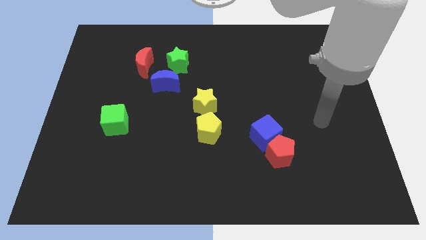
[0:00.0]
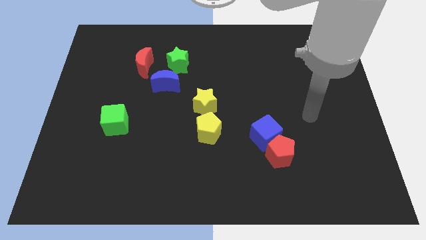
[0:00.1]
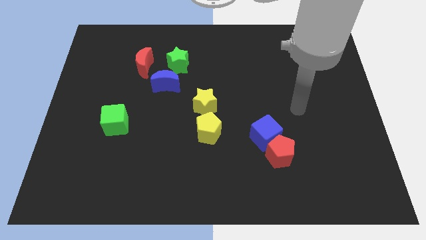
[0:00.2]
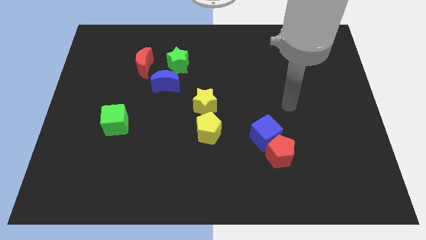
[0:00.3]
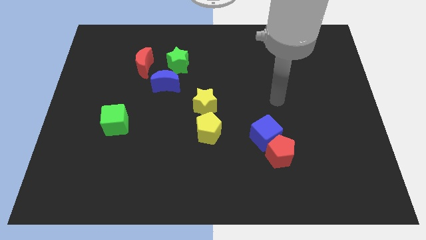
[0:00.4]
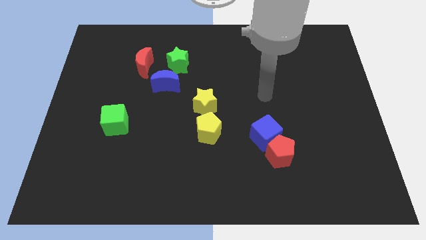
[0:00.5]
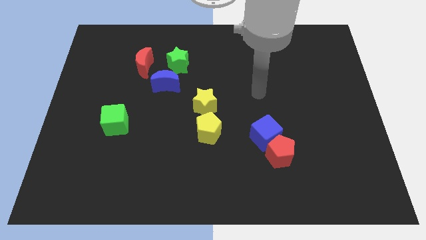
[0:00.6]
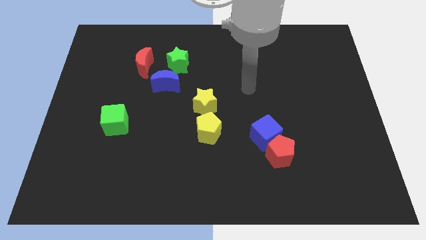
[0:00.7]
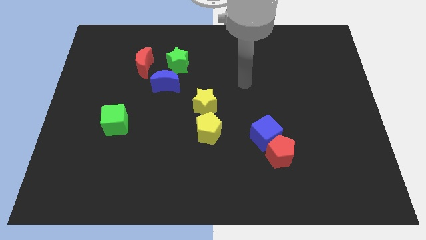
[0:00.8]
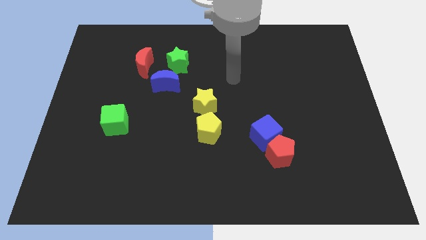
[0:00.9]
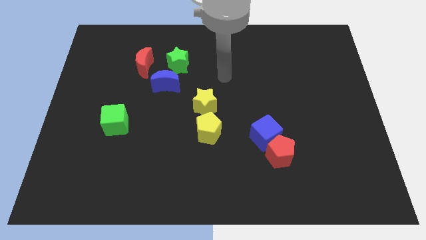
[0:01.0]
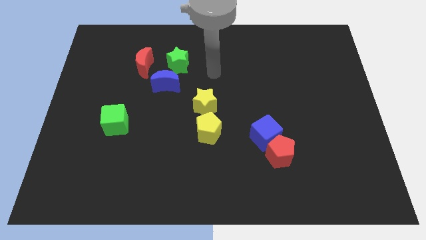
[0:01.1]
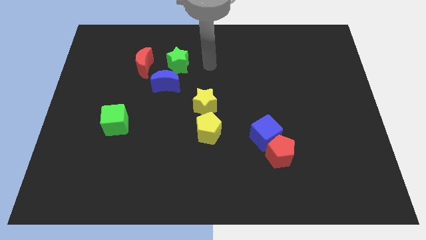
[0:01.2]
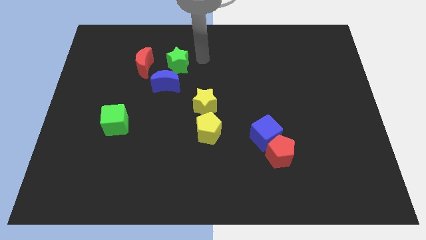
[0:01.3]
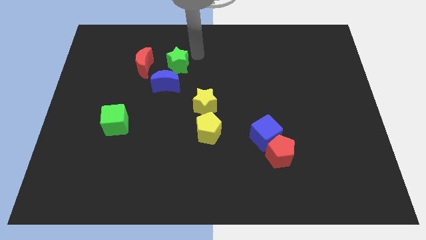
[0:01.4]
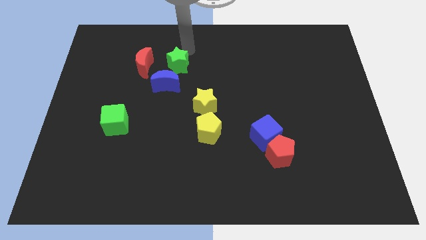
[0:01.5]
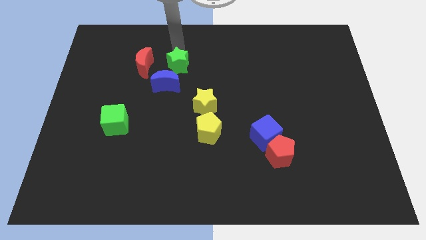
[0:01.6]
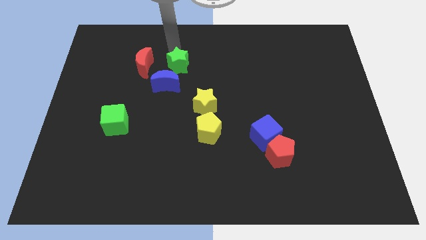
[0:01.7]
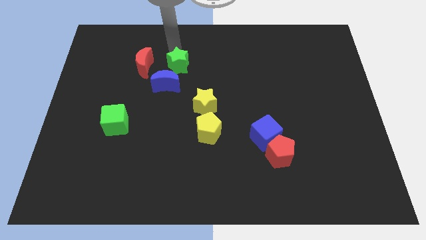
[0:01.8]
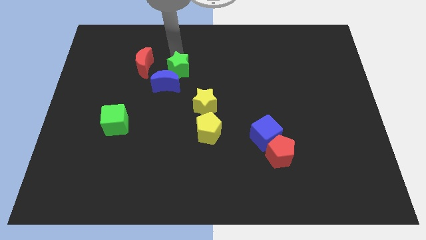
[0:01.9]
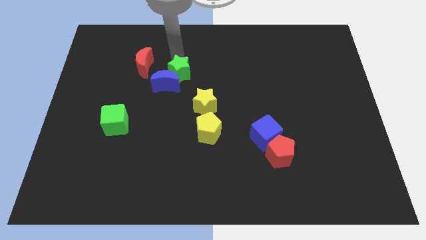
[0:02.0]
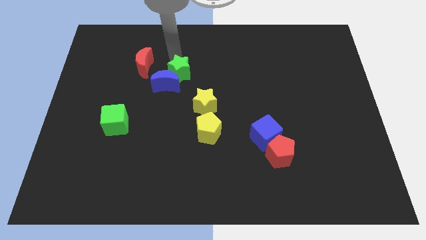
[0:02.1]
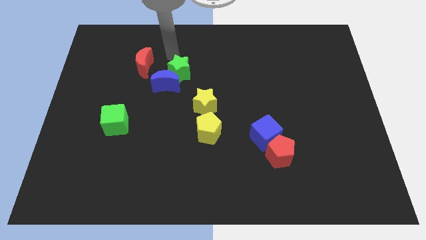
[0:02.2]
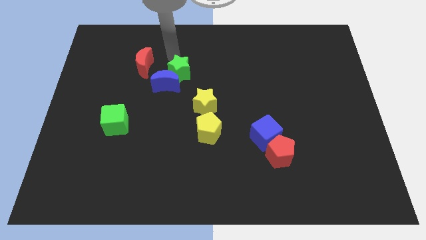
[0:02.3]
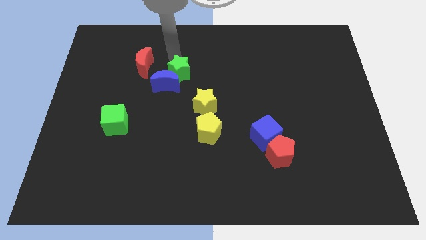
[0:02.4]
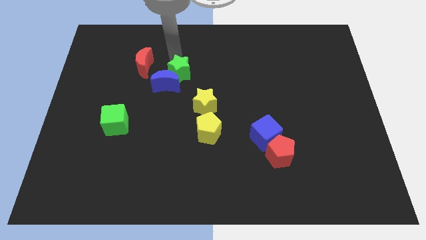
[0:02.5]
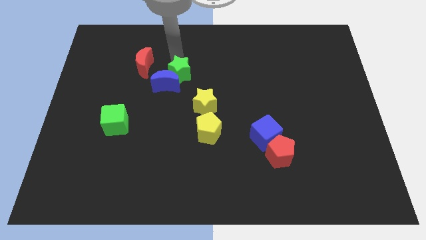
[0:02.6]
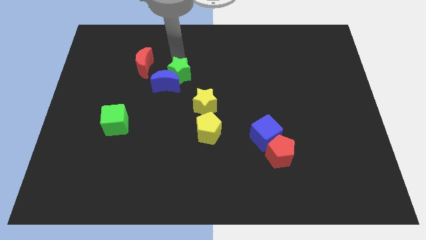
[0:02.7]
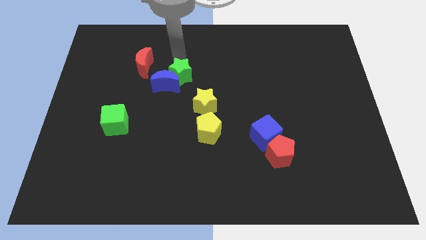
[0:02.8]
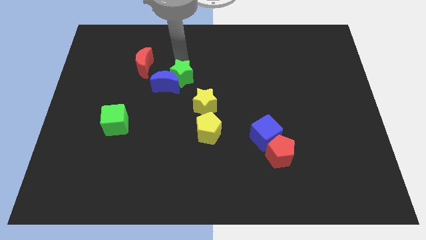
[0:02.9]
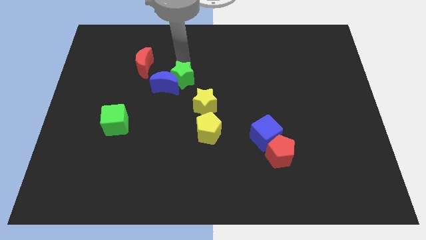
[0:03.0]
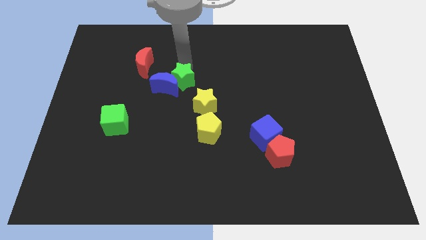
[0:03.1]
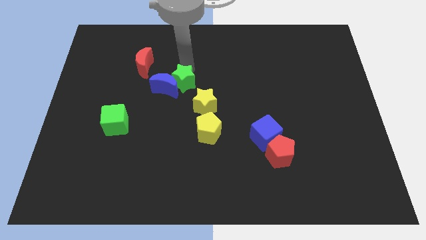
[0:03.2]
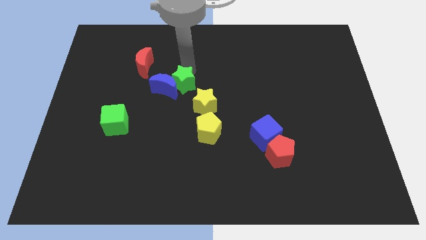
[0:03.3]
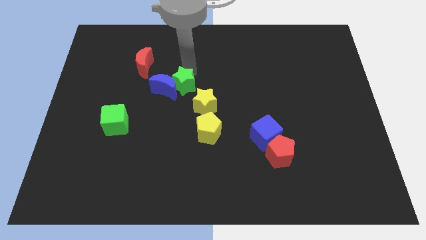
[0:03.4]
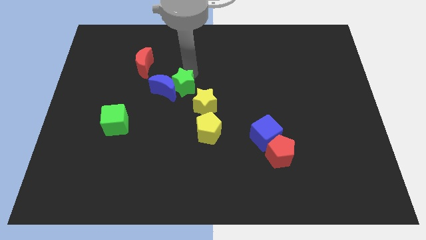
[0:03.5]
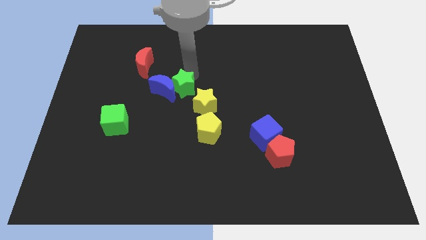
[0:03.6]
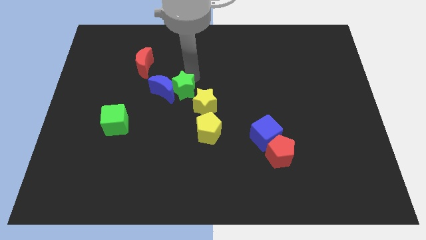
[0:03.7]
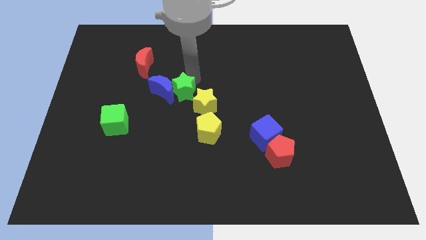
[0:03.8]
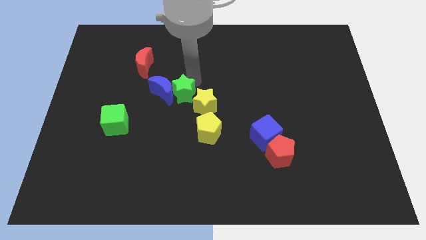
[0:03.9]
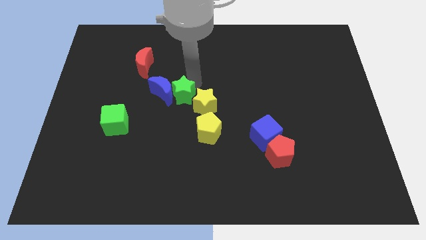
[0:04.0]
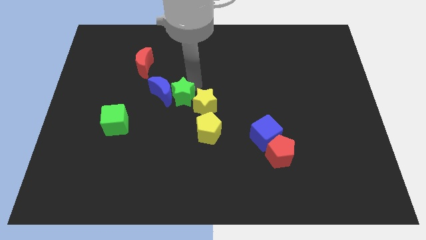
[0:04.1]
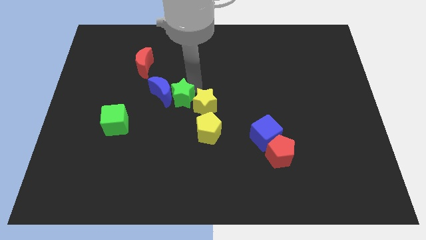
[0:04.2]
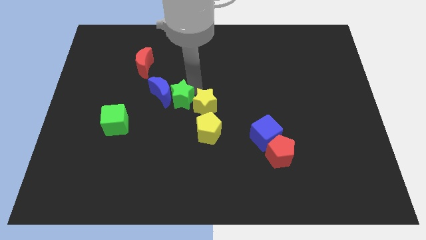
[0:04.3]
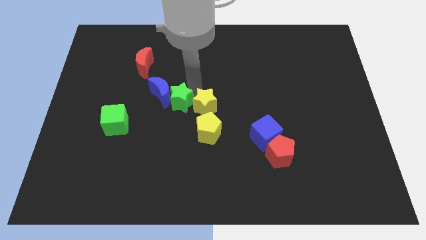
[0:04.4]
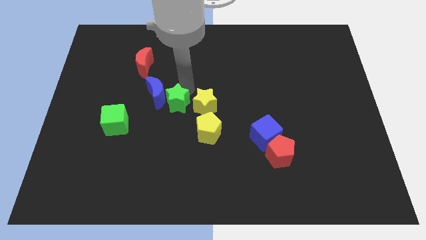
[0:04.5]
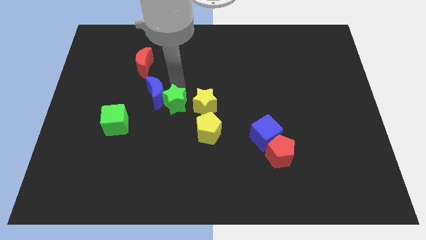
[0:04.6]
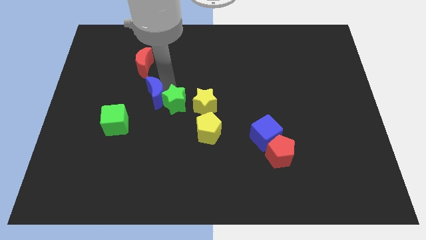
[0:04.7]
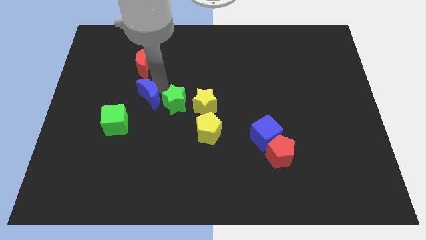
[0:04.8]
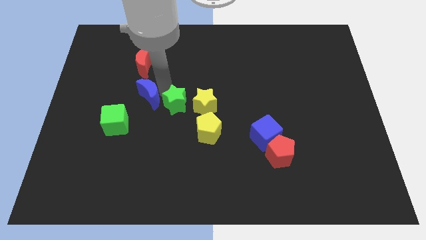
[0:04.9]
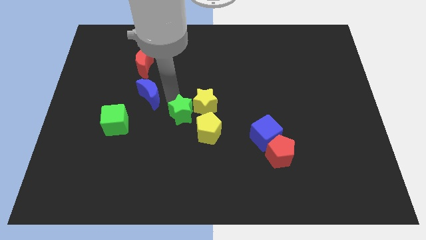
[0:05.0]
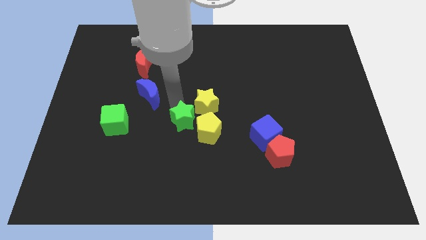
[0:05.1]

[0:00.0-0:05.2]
push the green star to the yellow pentagon

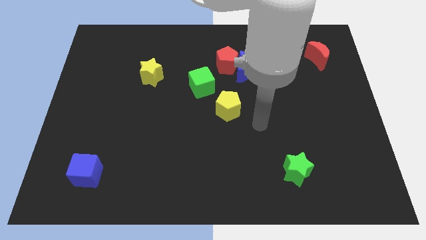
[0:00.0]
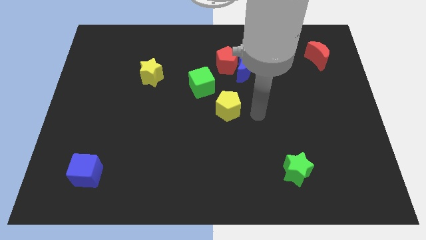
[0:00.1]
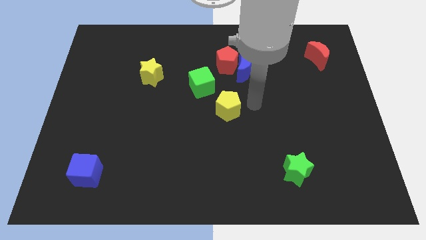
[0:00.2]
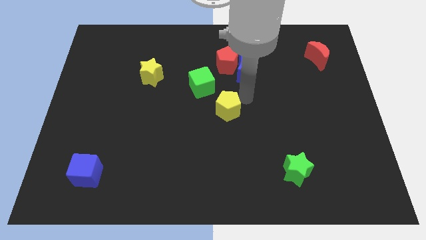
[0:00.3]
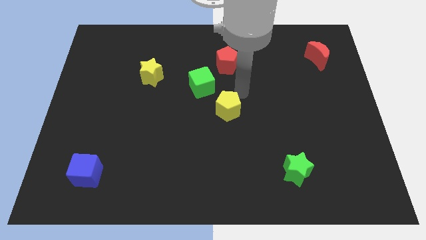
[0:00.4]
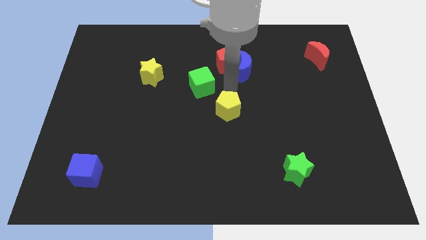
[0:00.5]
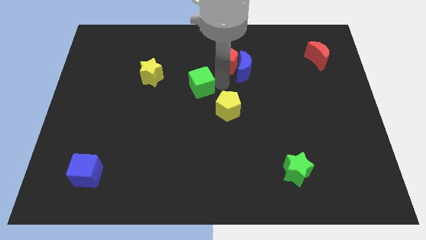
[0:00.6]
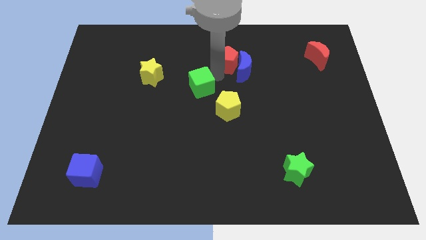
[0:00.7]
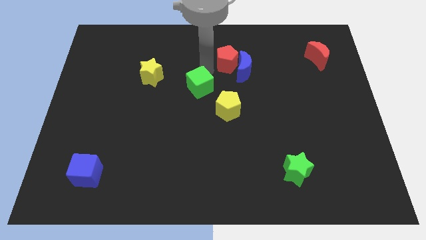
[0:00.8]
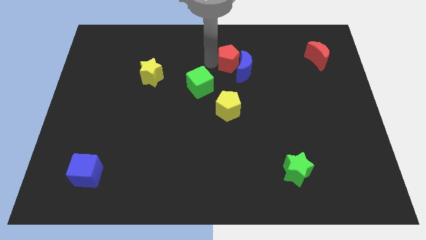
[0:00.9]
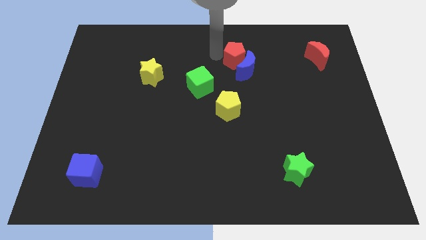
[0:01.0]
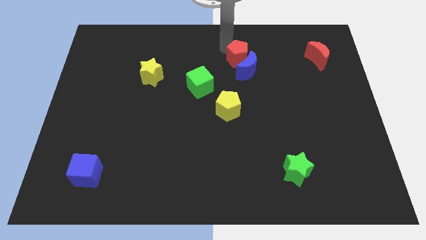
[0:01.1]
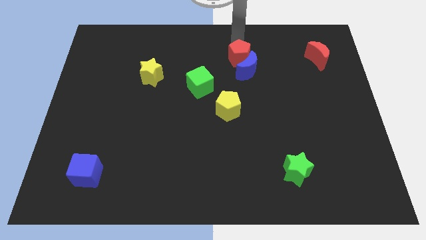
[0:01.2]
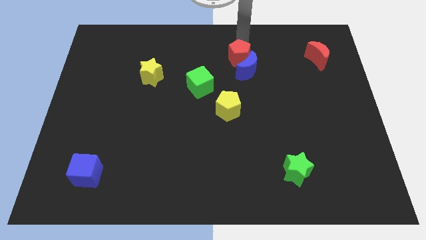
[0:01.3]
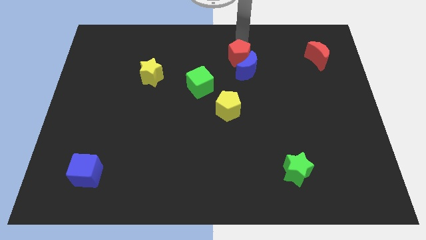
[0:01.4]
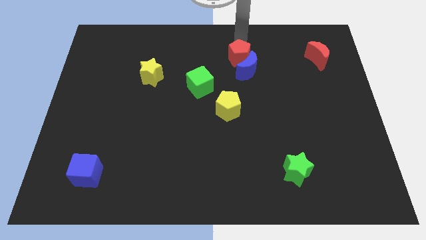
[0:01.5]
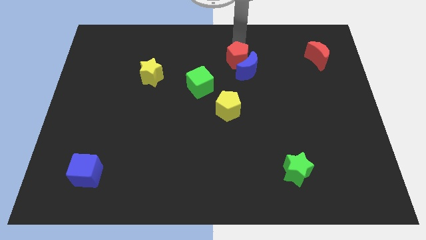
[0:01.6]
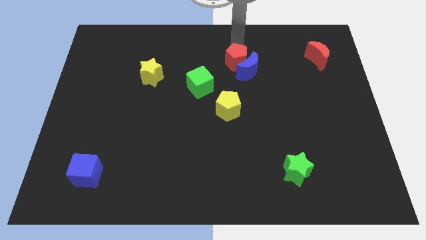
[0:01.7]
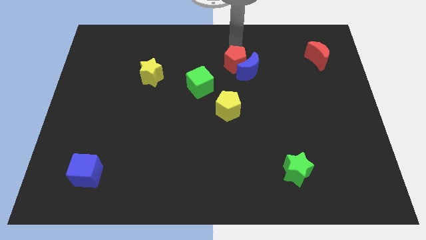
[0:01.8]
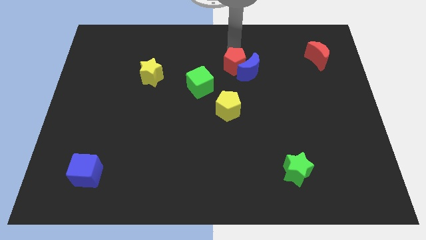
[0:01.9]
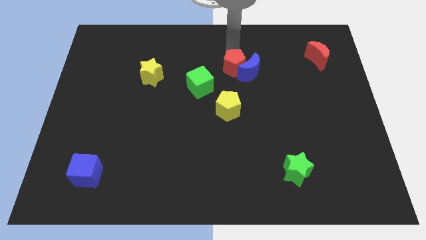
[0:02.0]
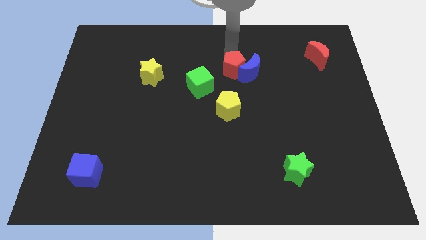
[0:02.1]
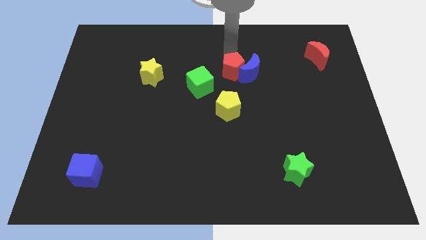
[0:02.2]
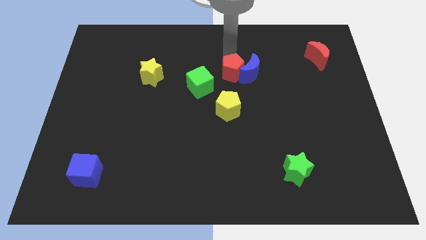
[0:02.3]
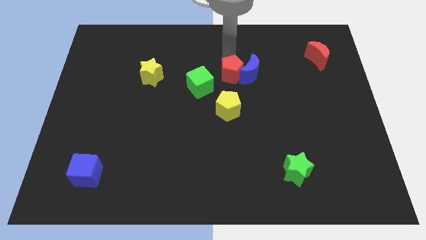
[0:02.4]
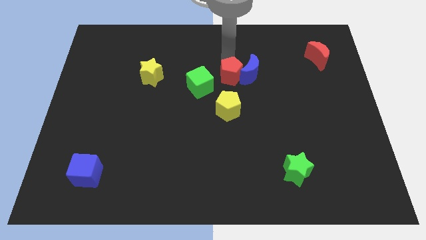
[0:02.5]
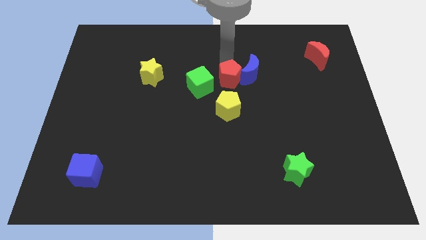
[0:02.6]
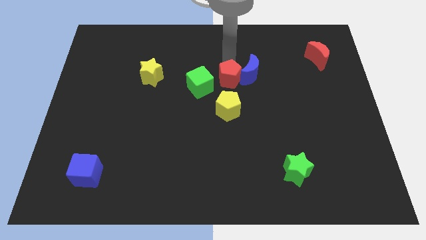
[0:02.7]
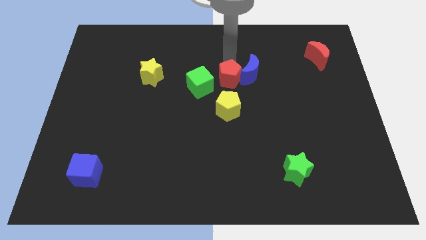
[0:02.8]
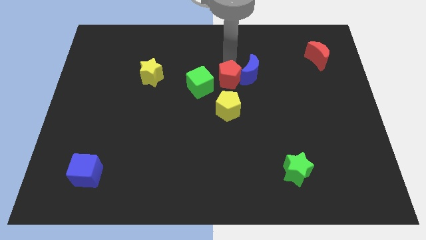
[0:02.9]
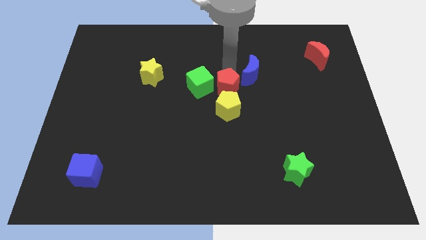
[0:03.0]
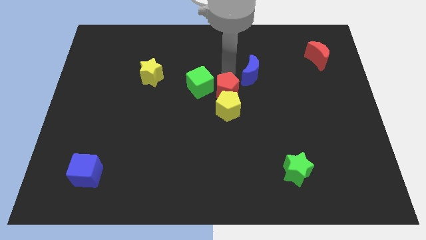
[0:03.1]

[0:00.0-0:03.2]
push the red pentagon to the yellow pentagon
